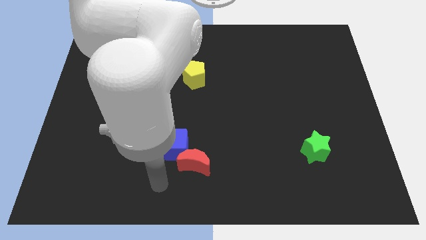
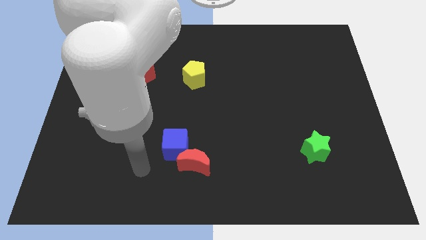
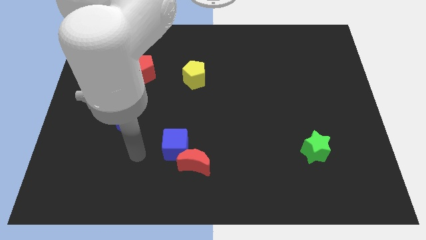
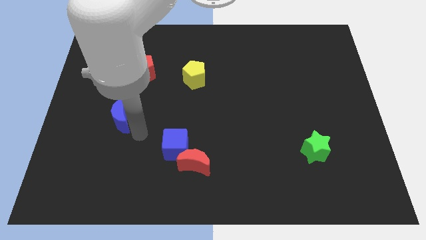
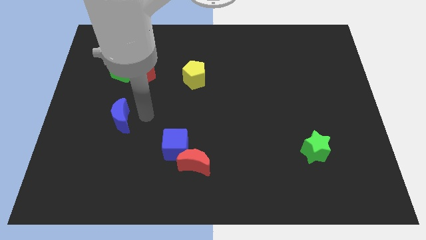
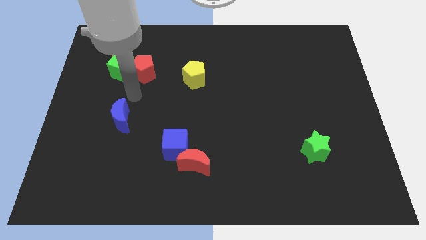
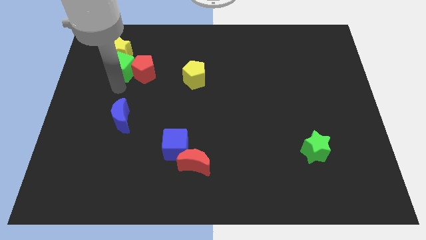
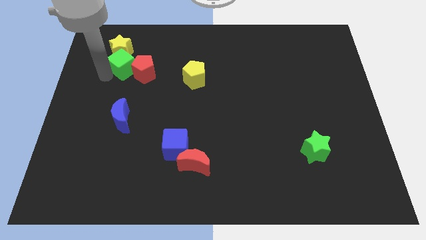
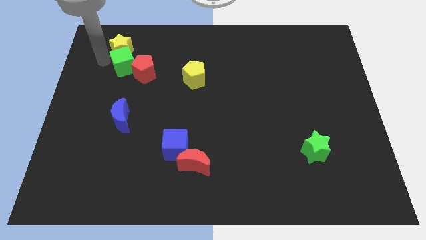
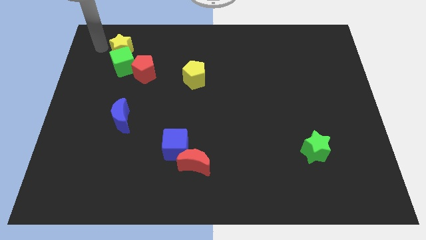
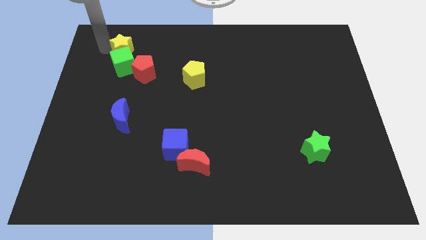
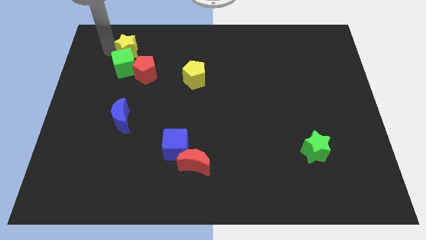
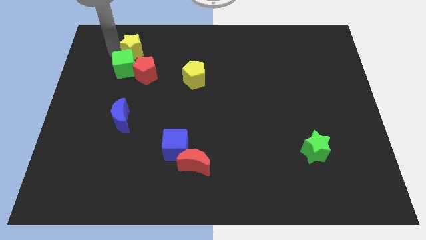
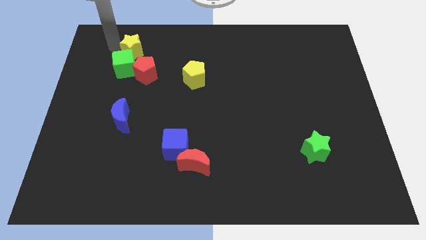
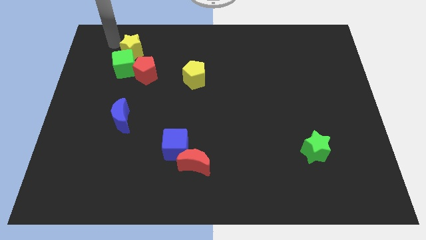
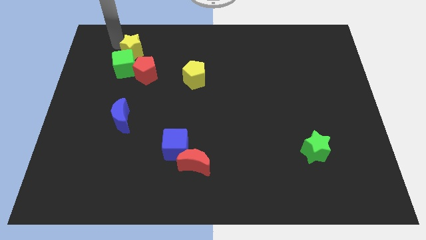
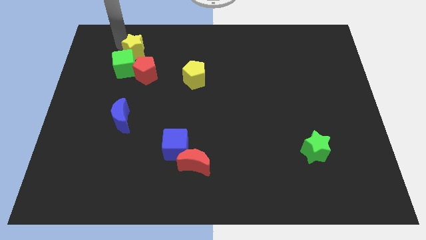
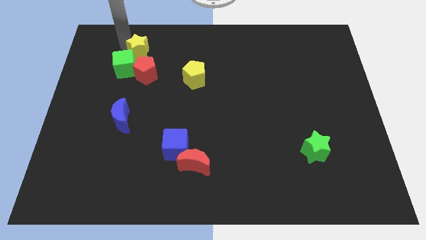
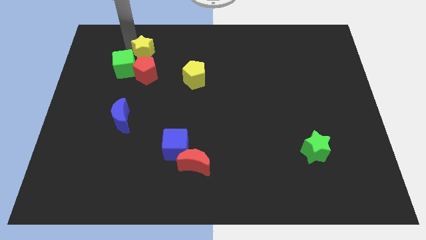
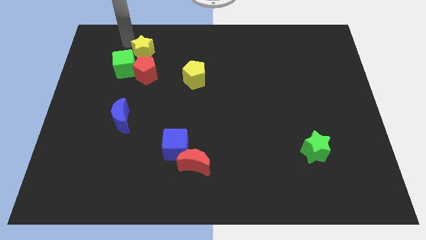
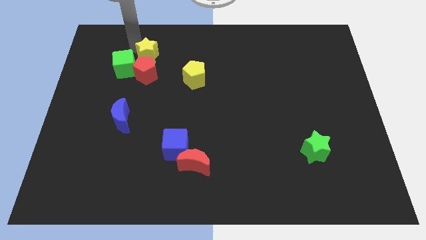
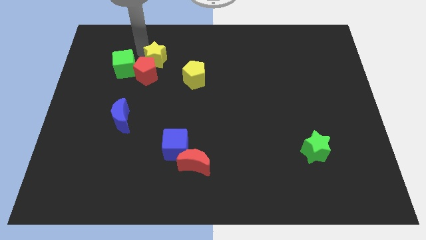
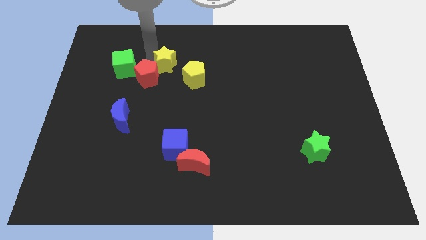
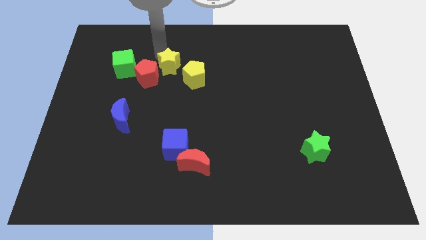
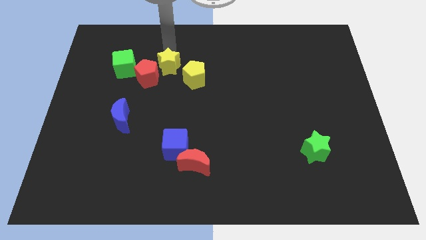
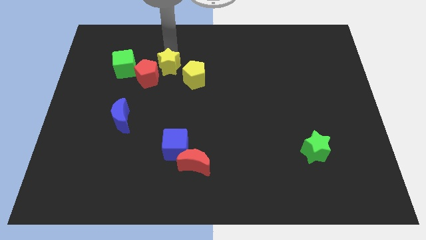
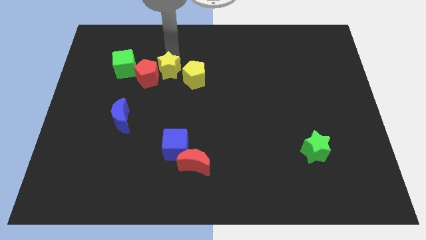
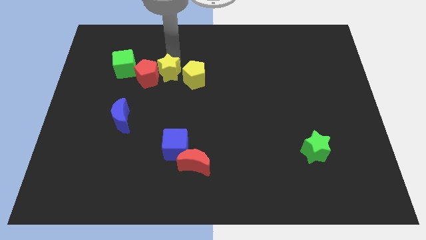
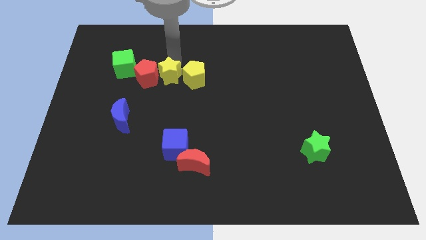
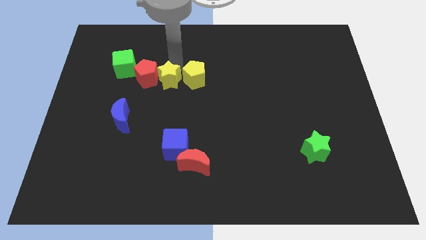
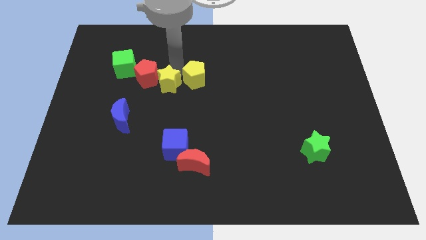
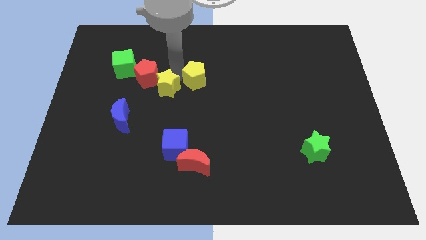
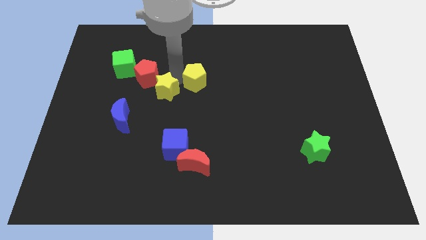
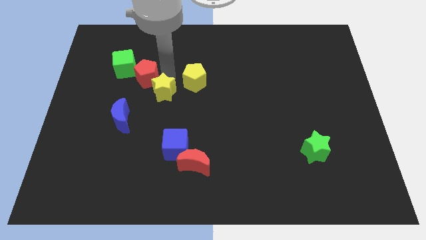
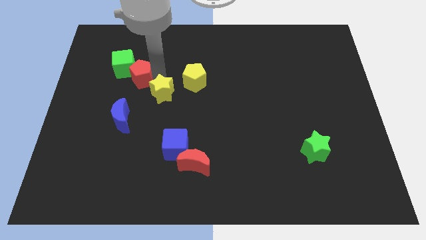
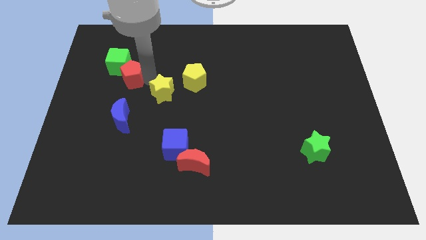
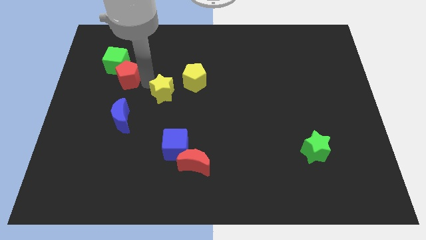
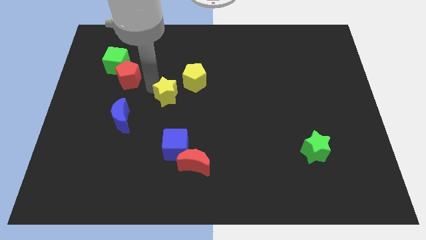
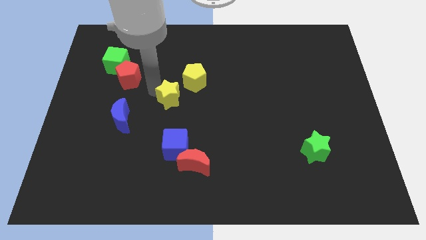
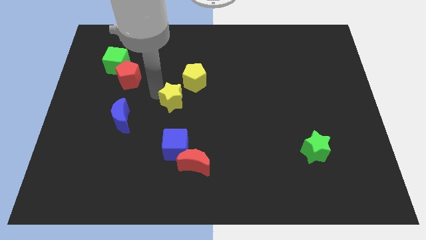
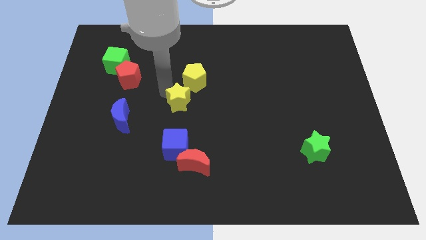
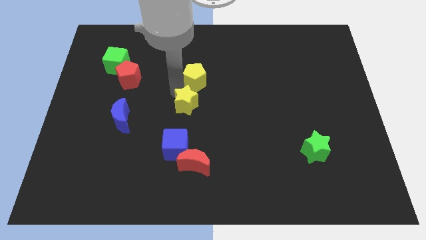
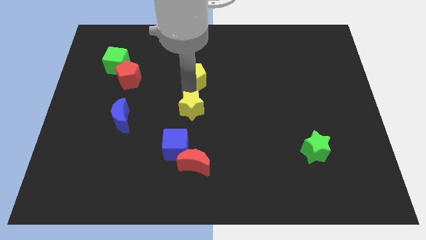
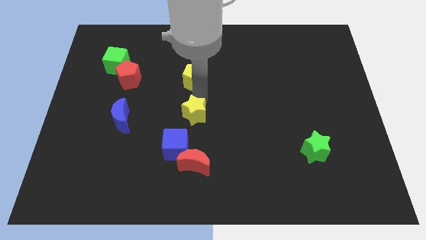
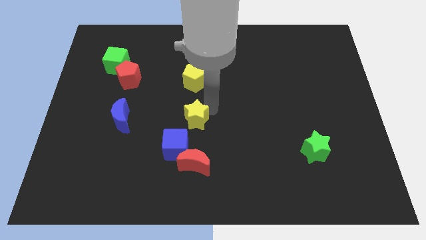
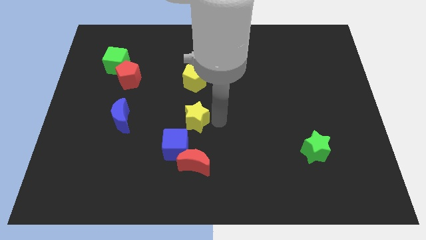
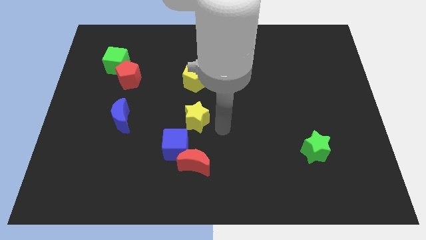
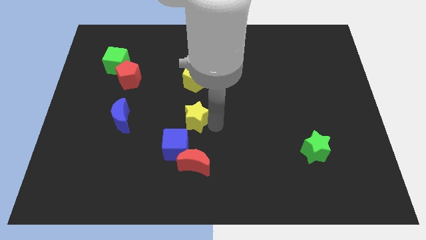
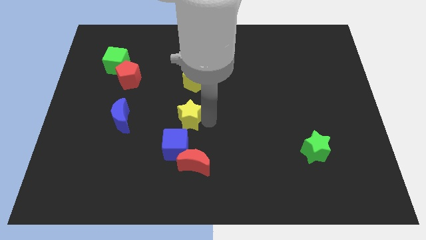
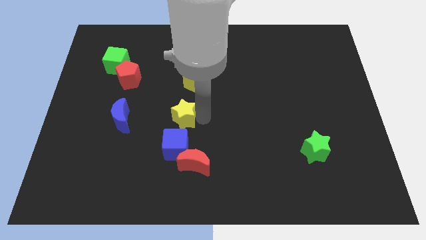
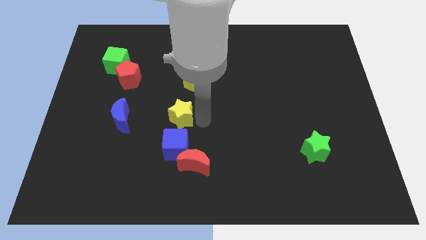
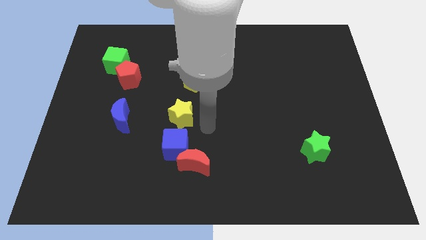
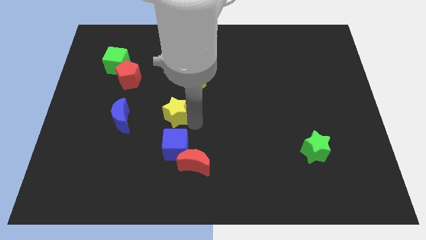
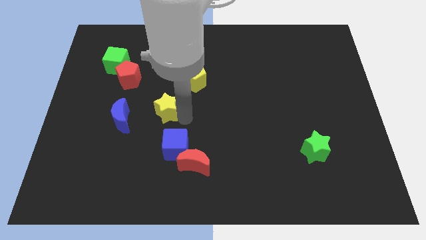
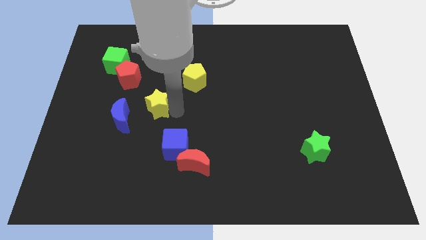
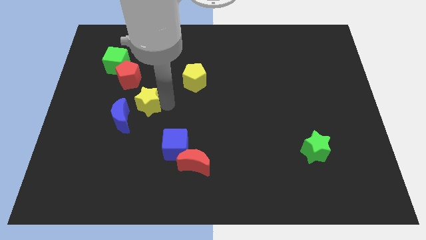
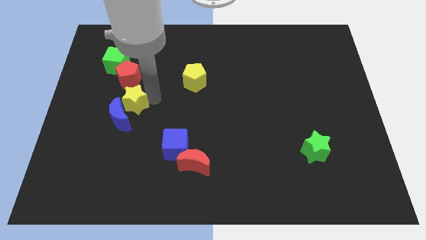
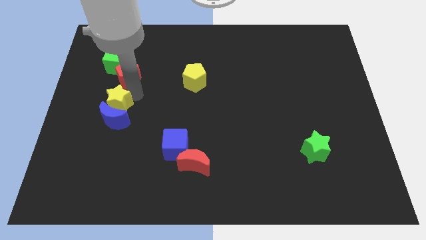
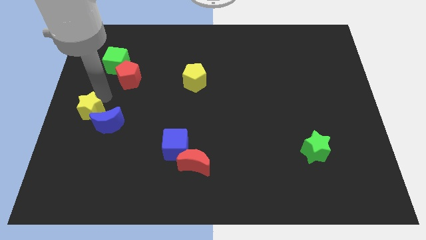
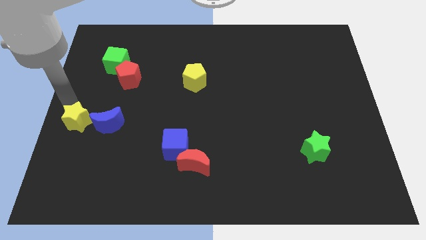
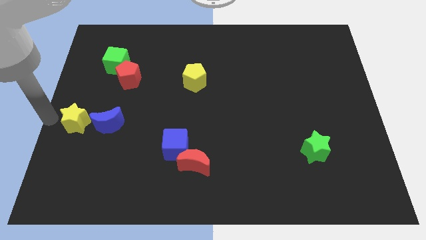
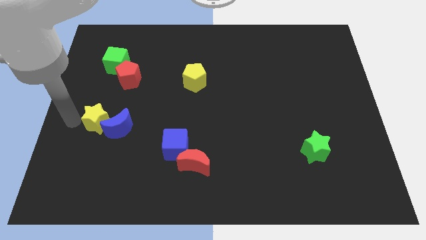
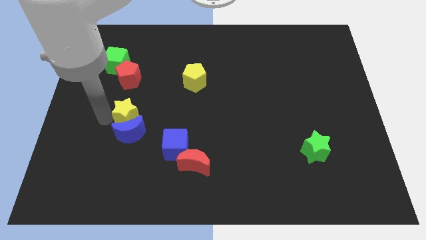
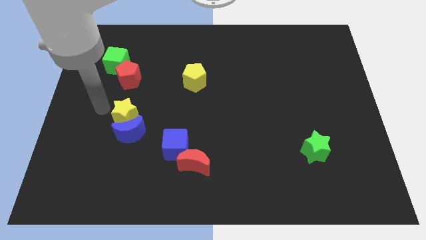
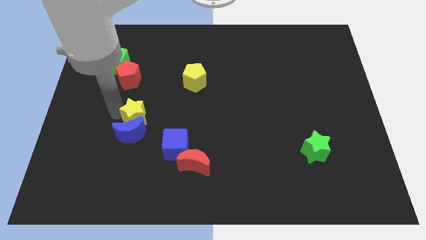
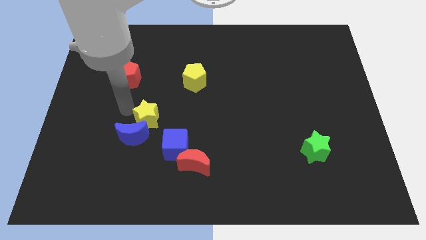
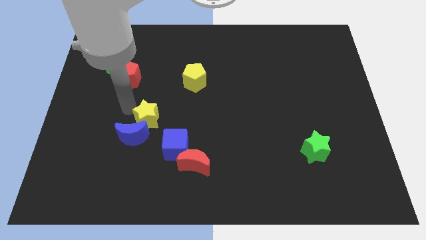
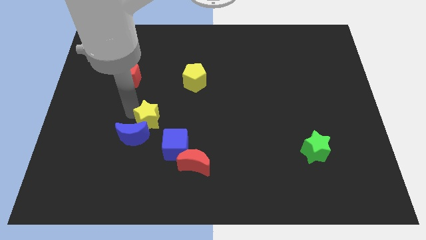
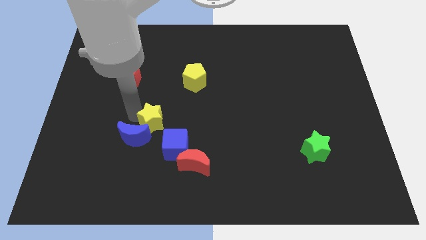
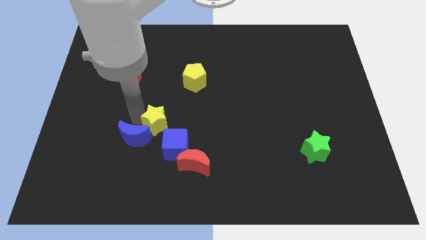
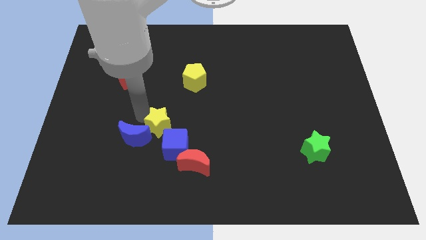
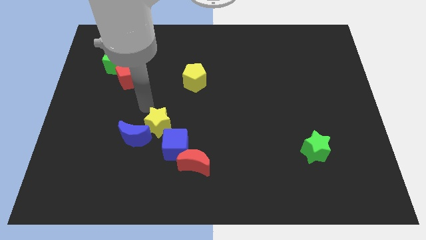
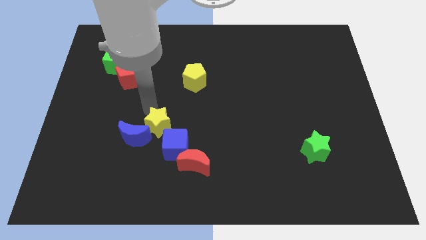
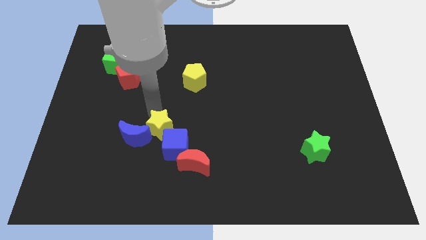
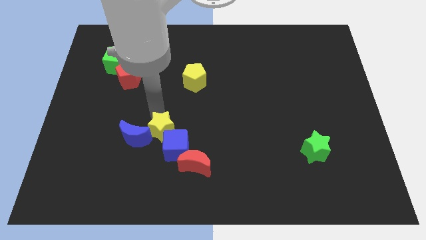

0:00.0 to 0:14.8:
move the yellow star towards the blue cube

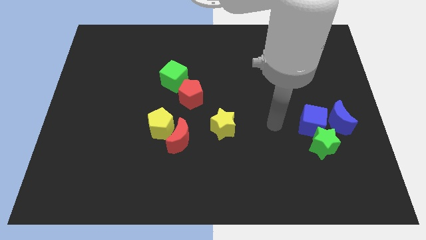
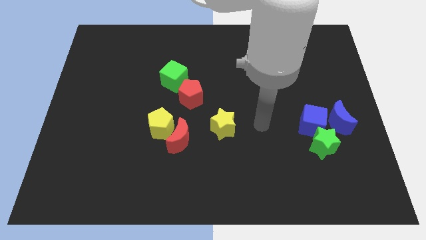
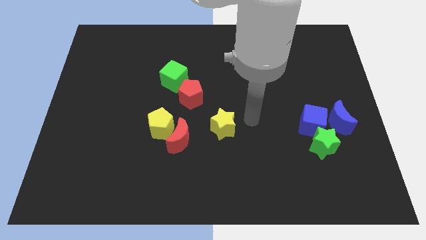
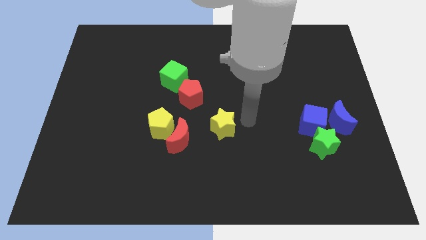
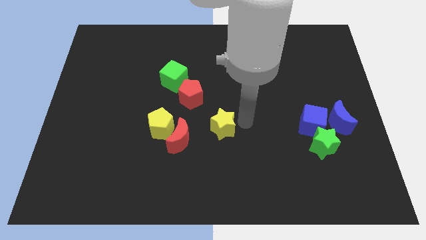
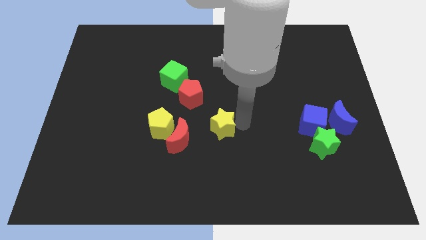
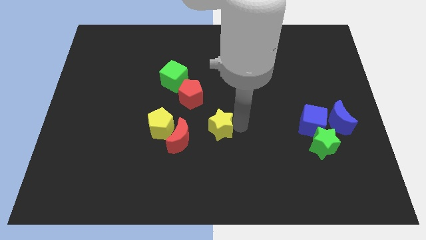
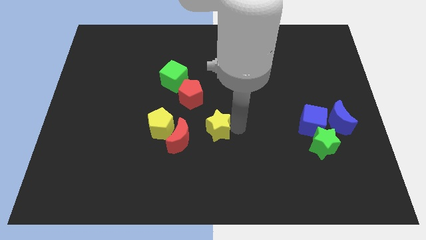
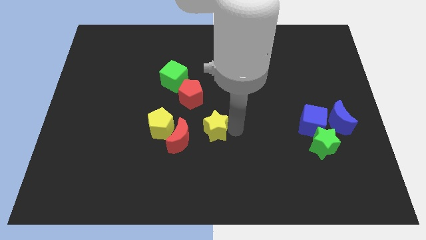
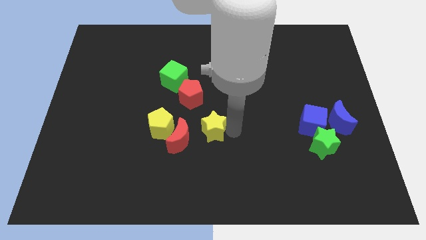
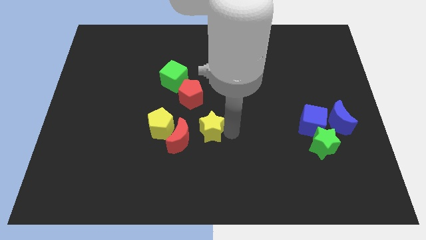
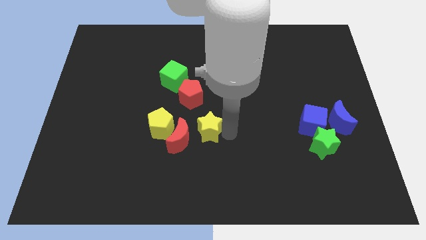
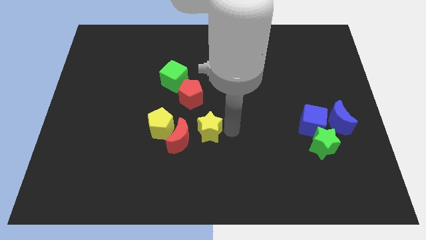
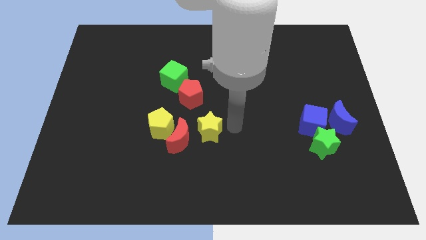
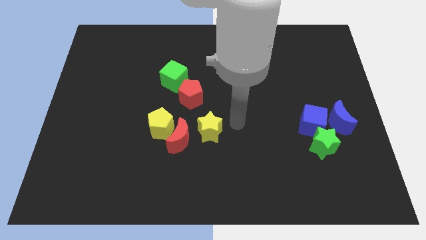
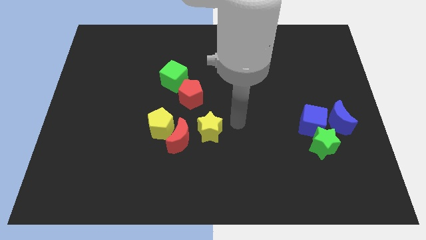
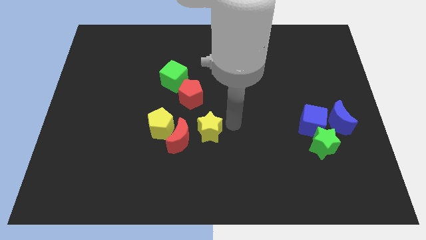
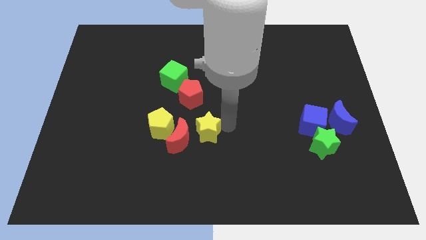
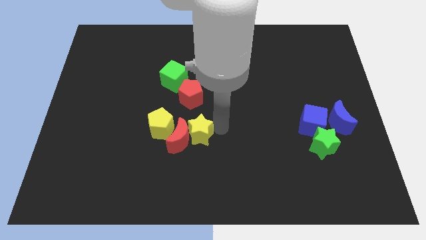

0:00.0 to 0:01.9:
push the yellow star next to the red moon
